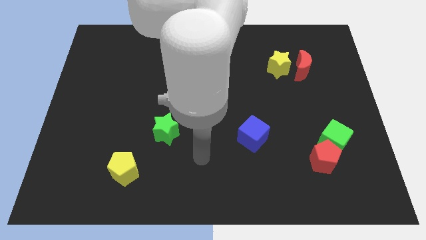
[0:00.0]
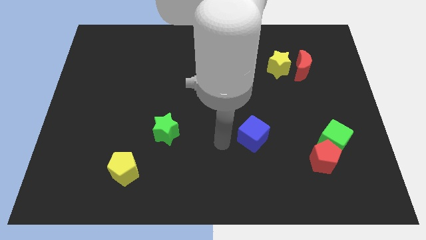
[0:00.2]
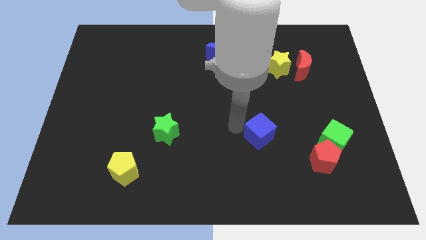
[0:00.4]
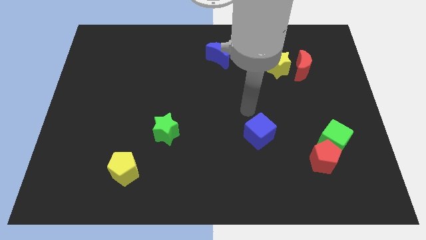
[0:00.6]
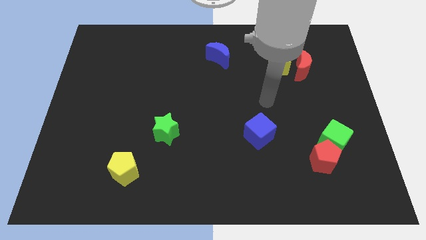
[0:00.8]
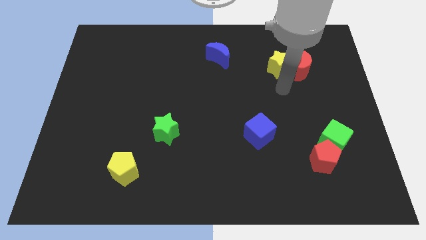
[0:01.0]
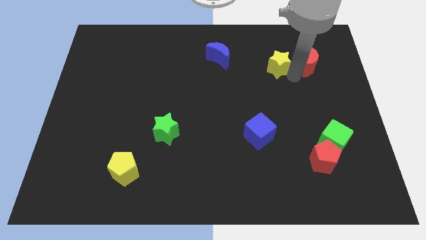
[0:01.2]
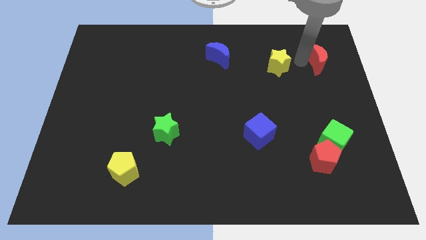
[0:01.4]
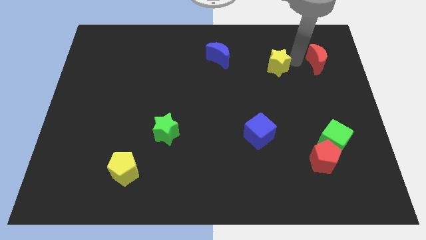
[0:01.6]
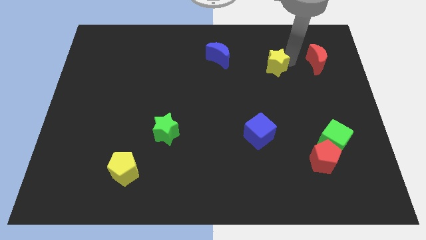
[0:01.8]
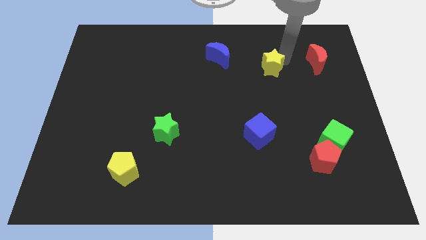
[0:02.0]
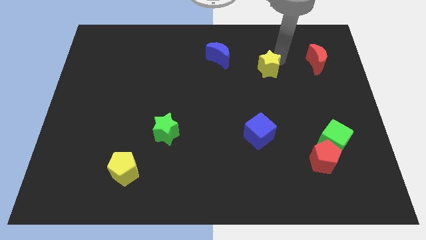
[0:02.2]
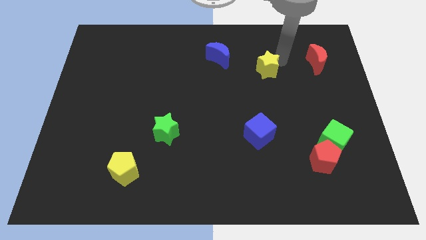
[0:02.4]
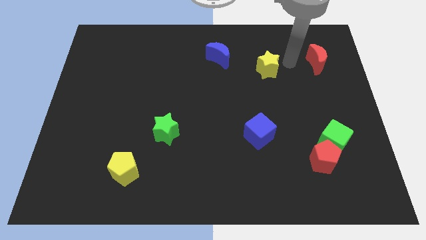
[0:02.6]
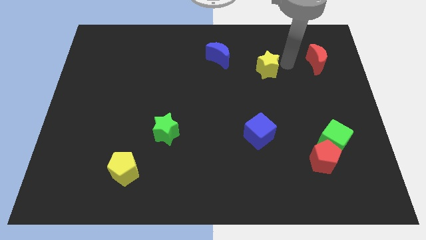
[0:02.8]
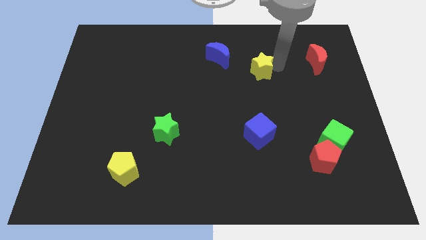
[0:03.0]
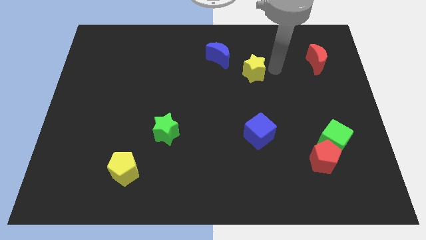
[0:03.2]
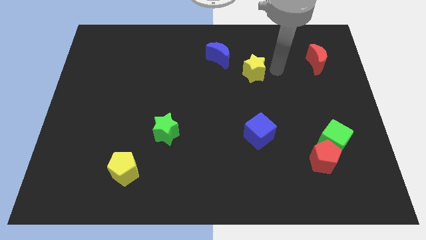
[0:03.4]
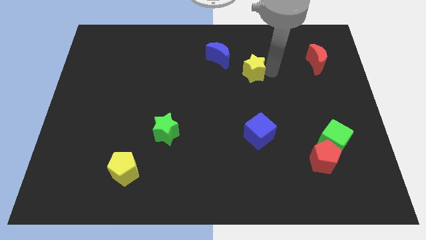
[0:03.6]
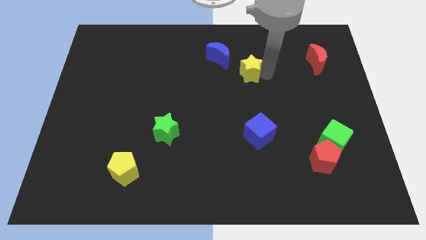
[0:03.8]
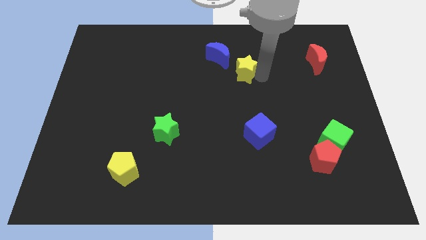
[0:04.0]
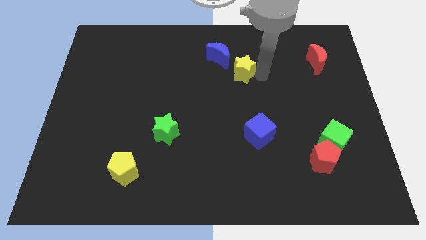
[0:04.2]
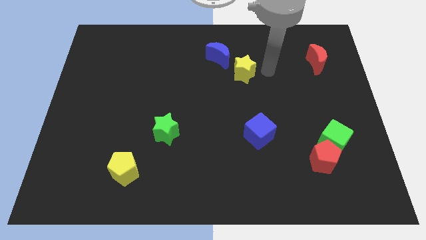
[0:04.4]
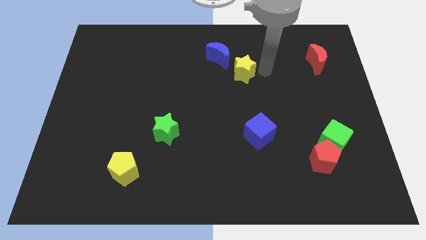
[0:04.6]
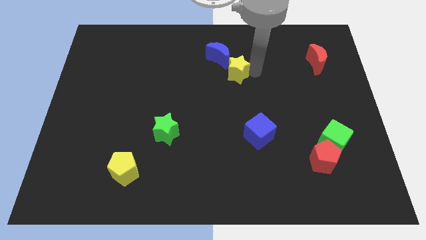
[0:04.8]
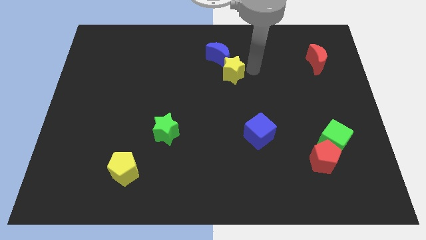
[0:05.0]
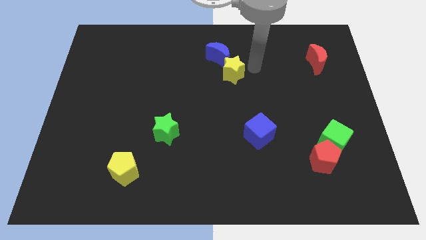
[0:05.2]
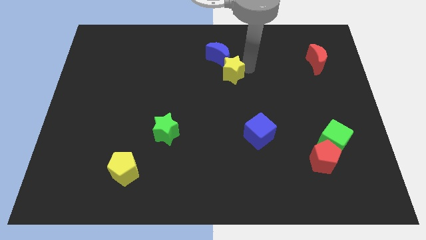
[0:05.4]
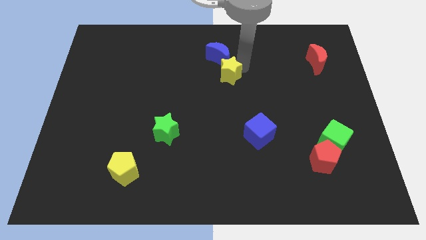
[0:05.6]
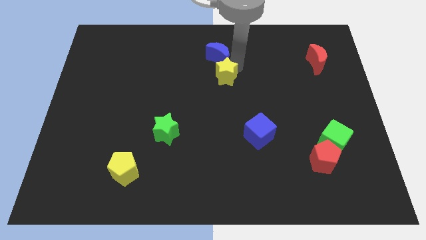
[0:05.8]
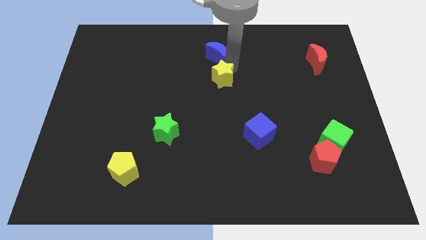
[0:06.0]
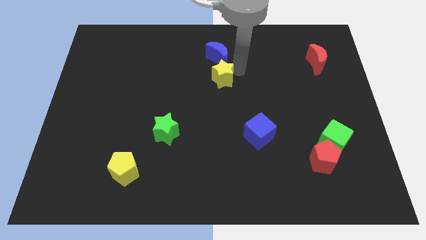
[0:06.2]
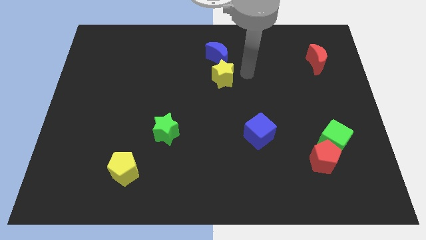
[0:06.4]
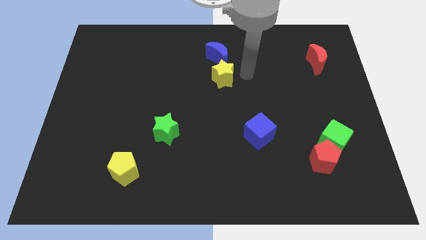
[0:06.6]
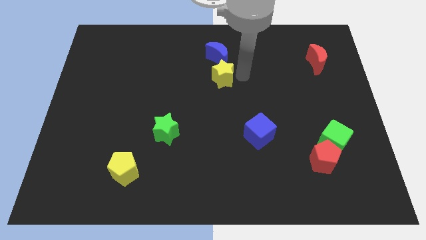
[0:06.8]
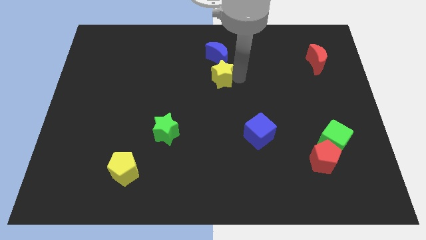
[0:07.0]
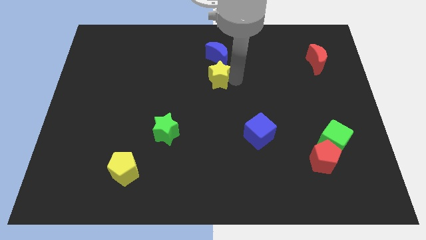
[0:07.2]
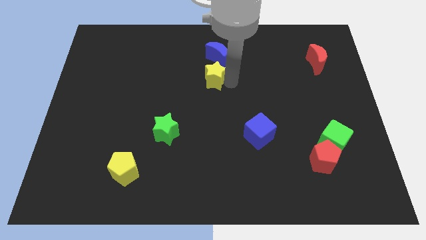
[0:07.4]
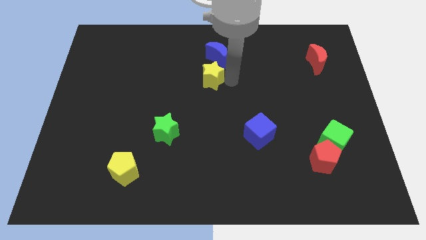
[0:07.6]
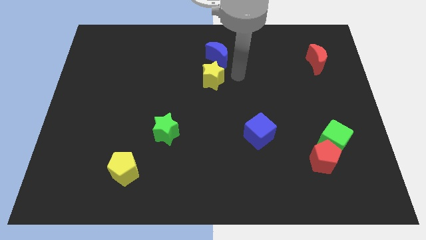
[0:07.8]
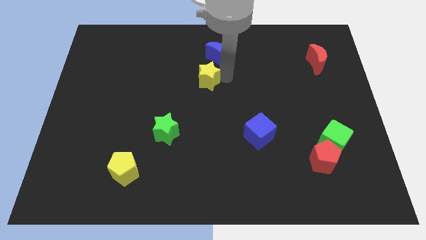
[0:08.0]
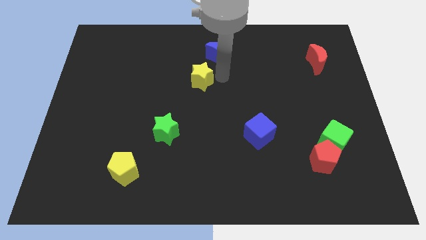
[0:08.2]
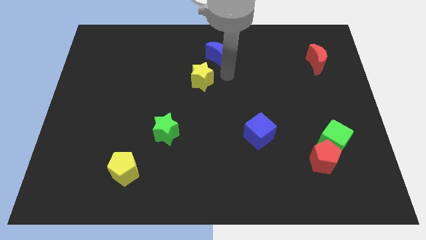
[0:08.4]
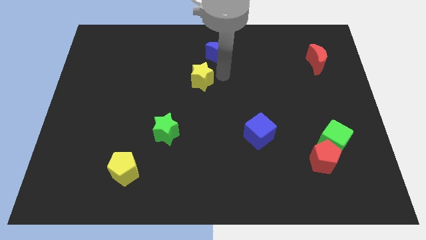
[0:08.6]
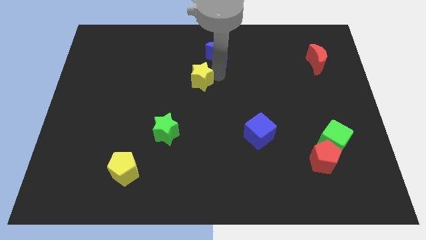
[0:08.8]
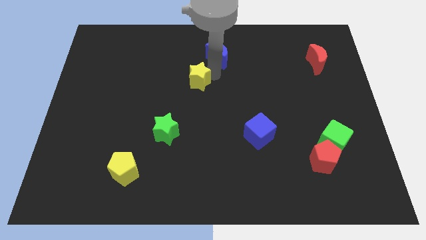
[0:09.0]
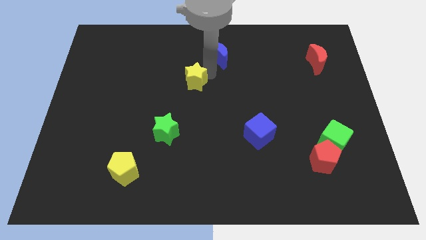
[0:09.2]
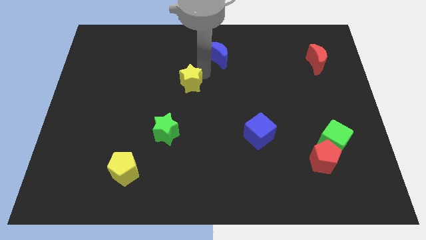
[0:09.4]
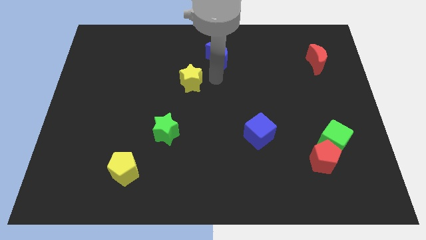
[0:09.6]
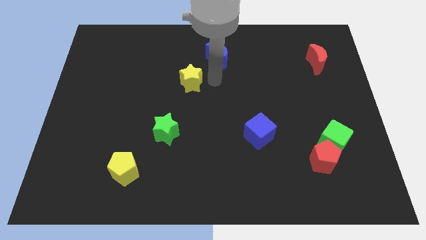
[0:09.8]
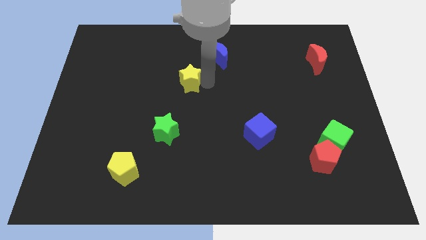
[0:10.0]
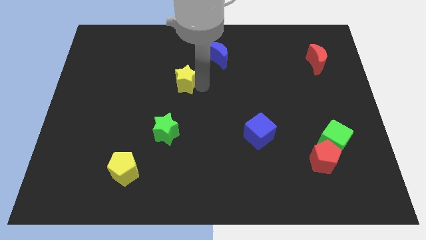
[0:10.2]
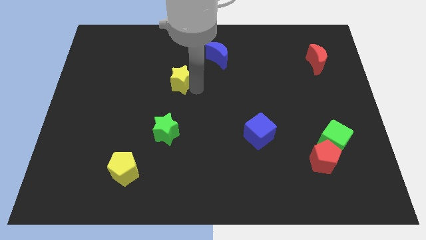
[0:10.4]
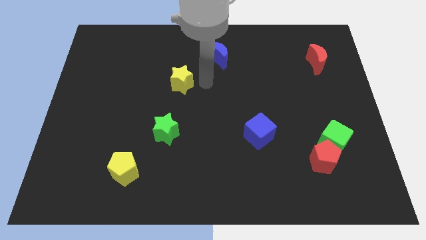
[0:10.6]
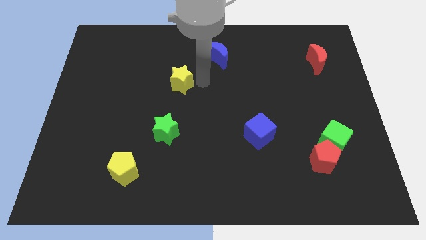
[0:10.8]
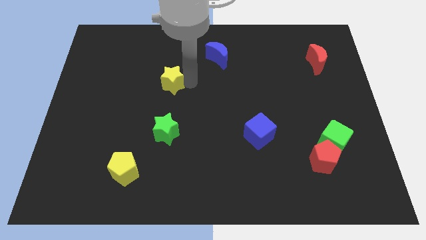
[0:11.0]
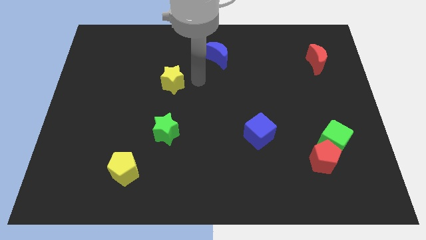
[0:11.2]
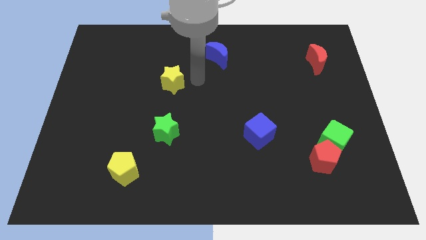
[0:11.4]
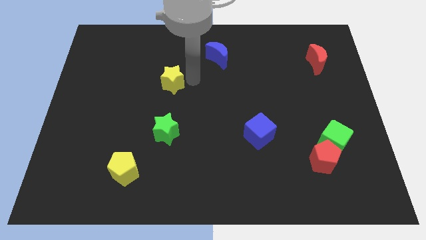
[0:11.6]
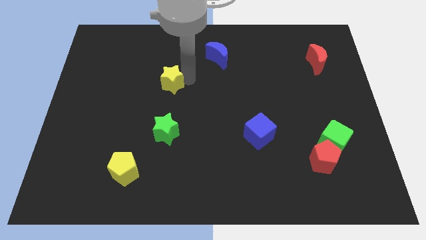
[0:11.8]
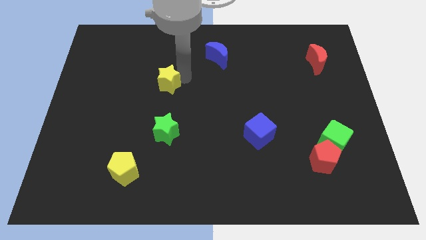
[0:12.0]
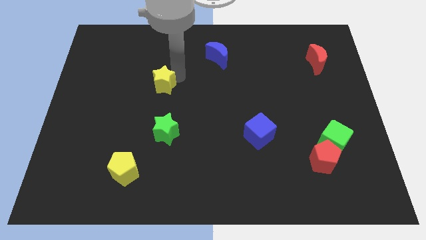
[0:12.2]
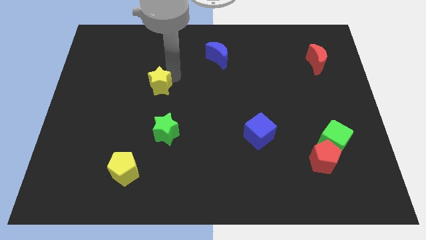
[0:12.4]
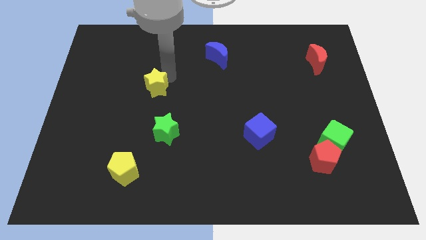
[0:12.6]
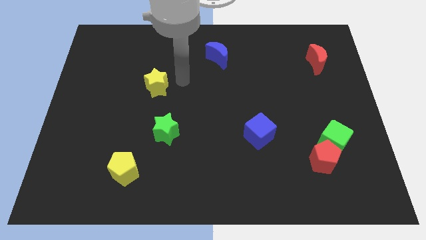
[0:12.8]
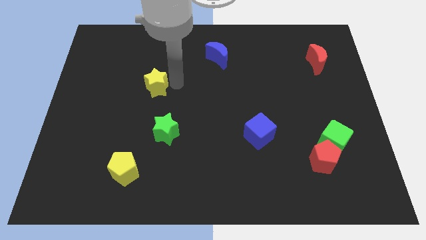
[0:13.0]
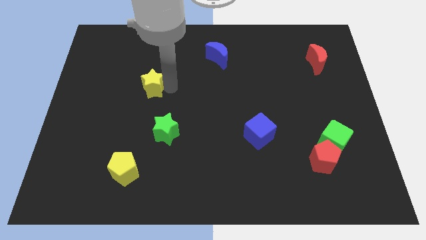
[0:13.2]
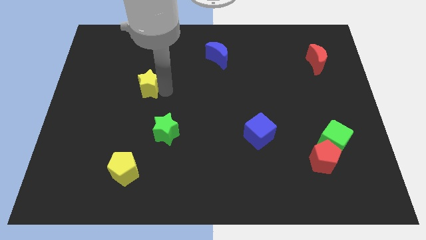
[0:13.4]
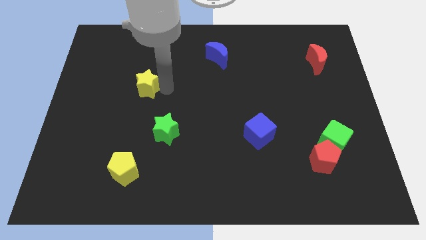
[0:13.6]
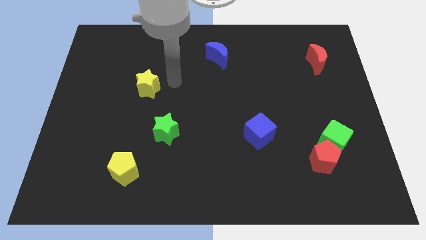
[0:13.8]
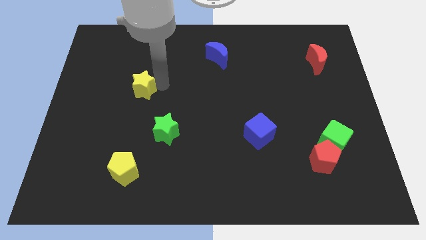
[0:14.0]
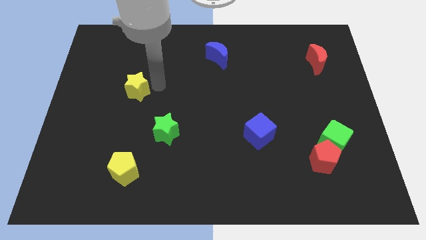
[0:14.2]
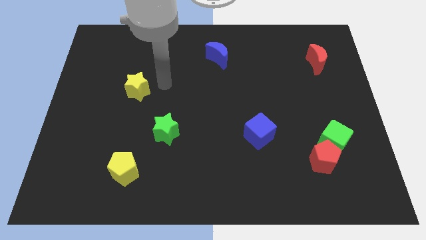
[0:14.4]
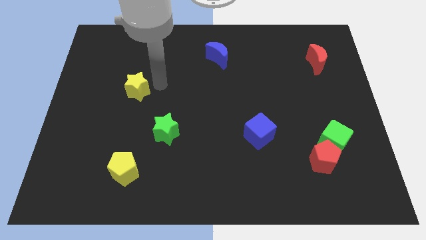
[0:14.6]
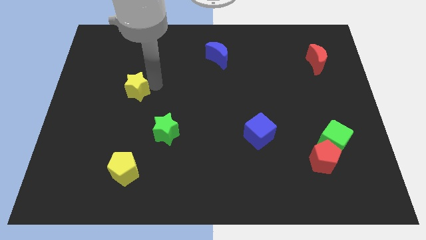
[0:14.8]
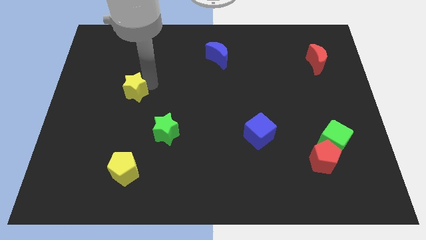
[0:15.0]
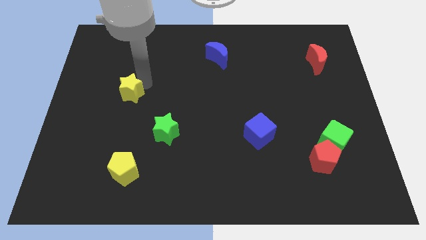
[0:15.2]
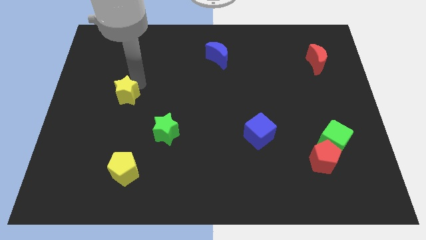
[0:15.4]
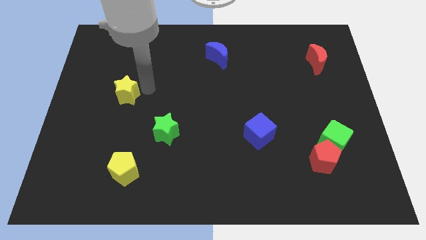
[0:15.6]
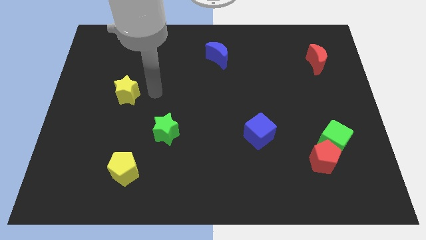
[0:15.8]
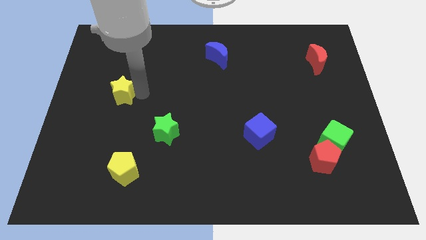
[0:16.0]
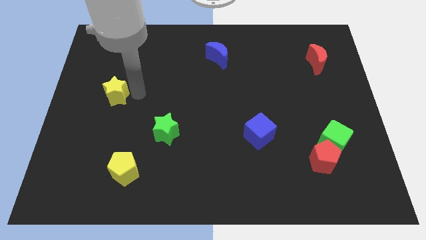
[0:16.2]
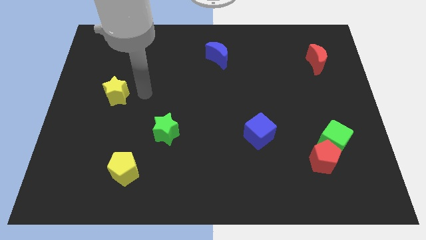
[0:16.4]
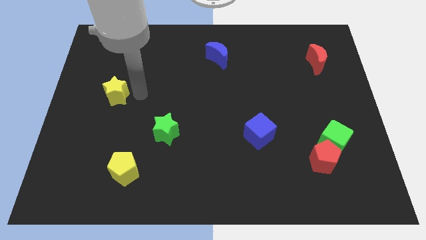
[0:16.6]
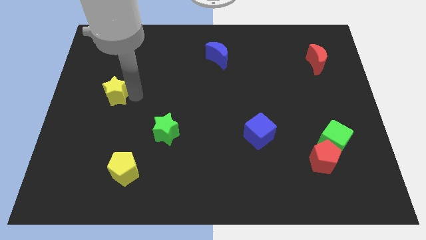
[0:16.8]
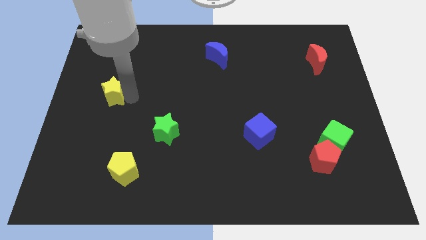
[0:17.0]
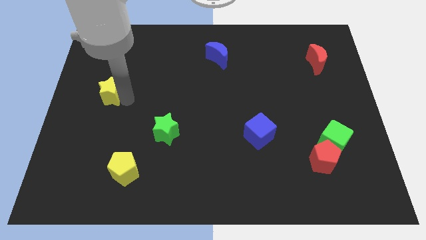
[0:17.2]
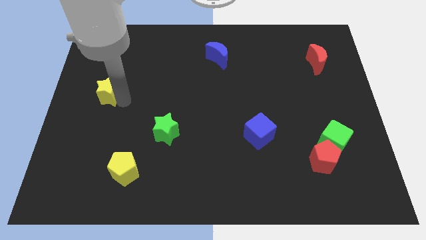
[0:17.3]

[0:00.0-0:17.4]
move the yellow star to the left side of the board
